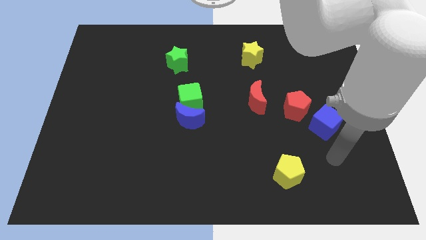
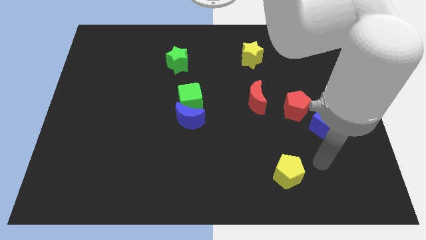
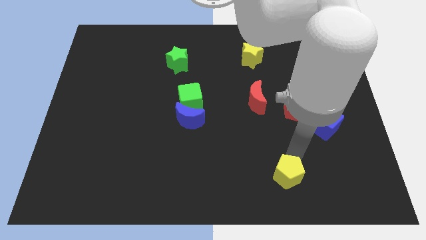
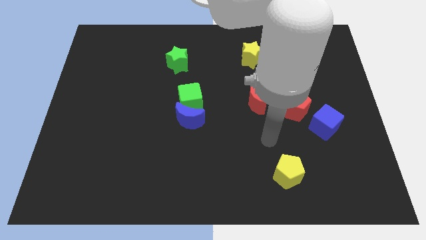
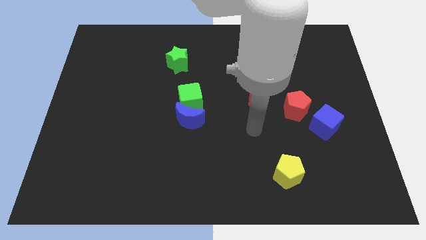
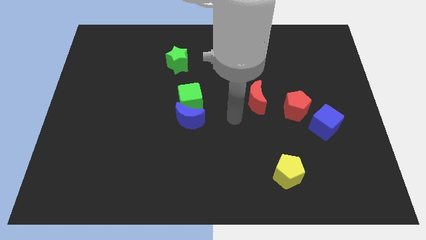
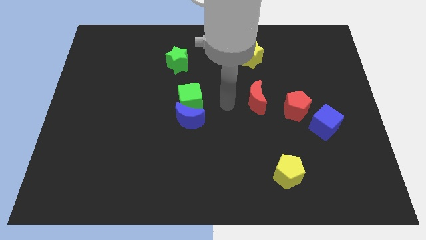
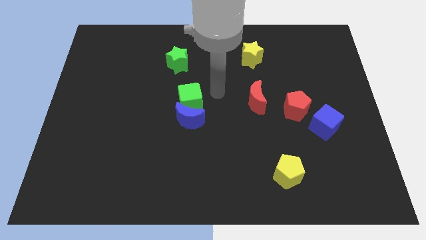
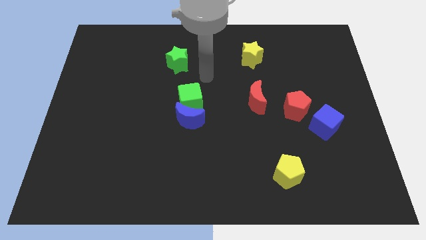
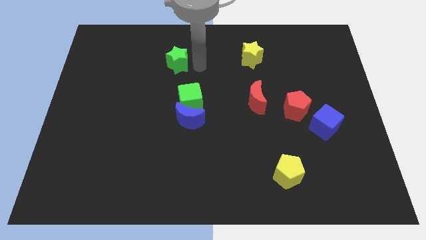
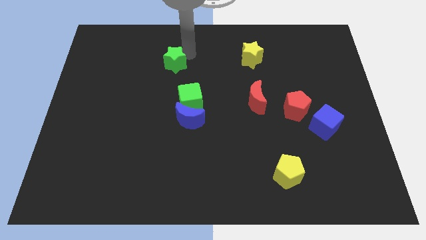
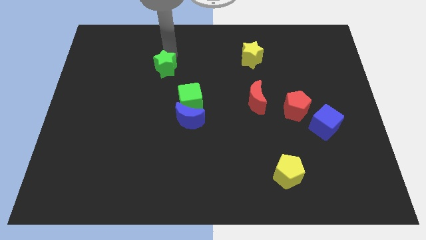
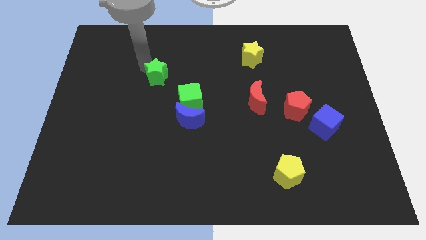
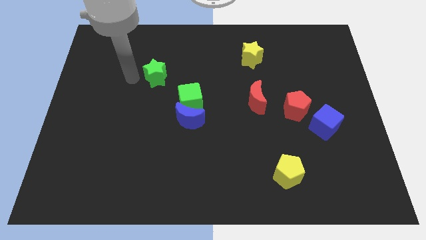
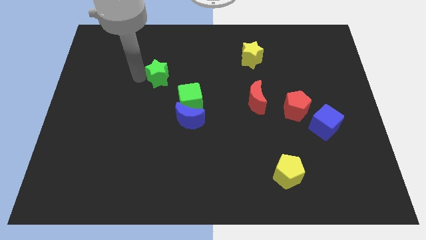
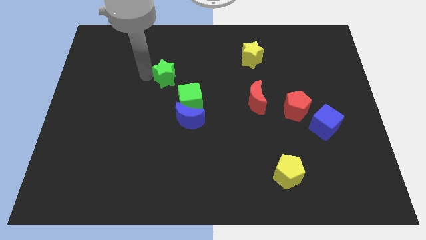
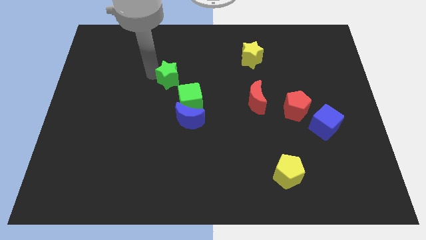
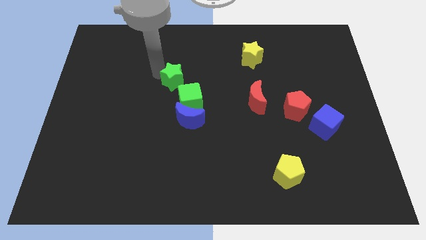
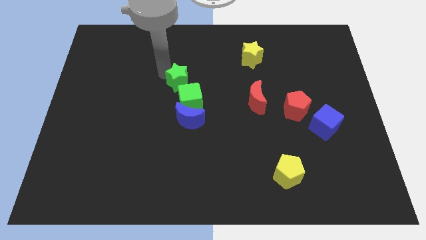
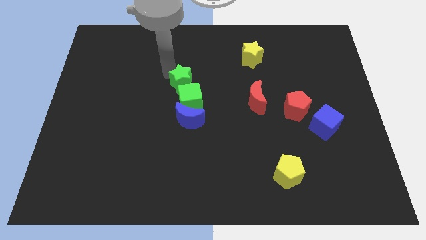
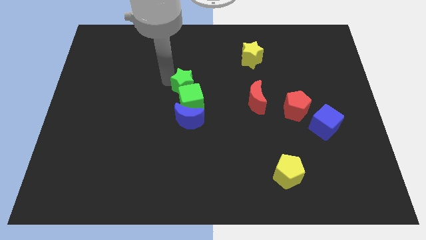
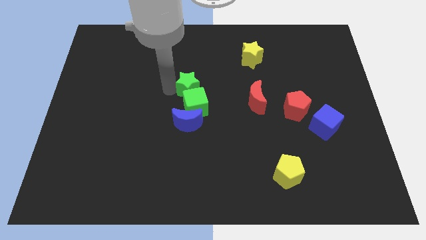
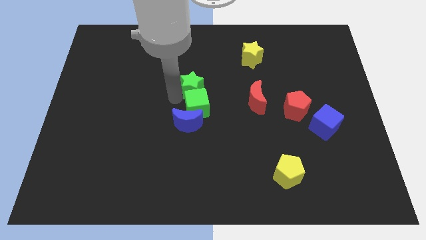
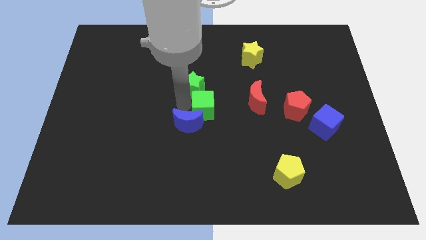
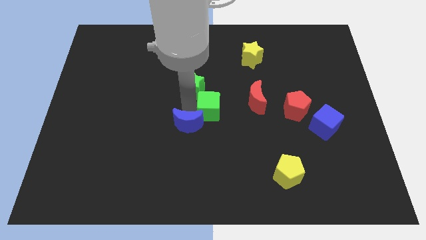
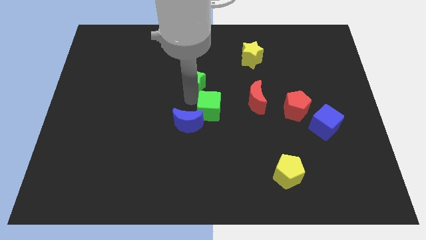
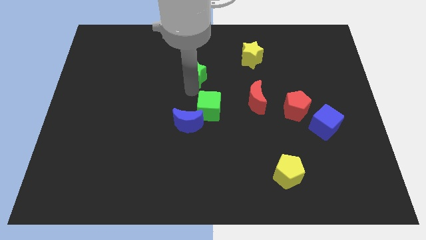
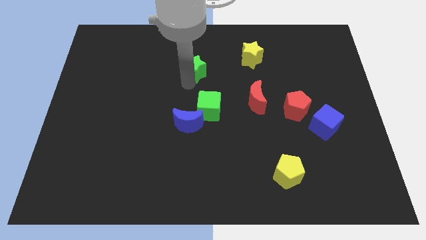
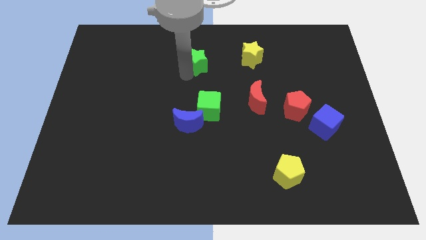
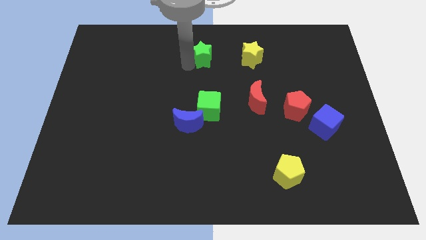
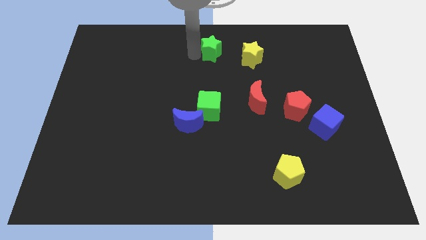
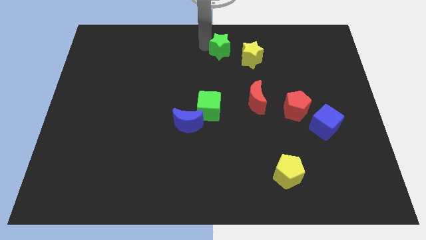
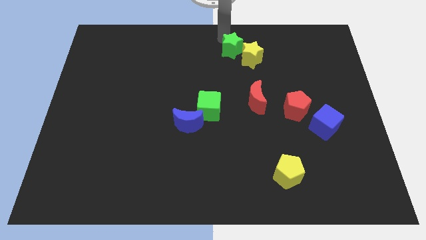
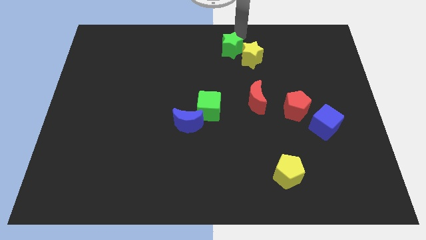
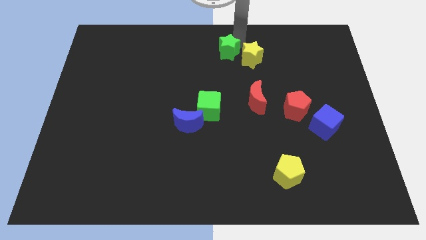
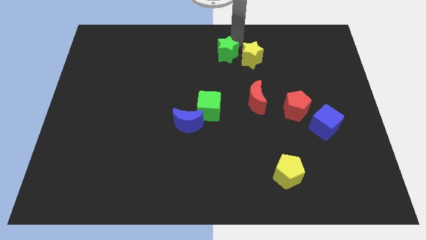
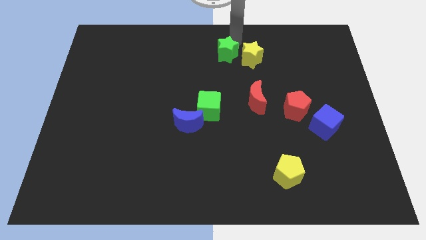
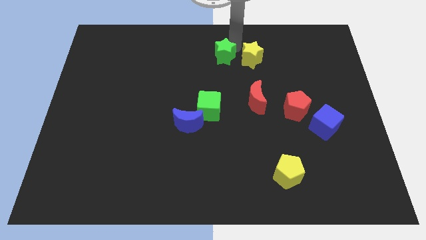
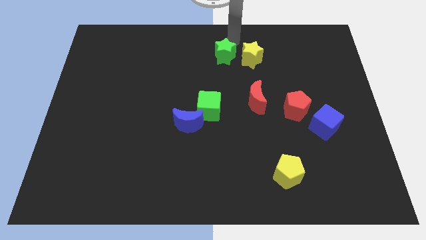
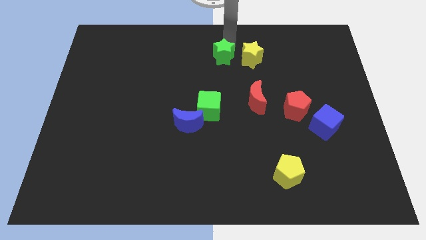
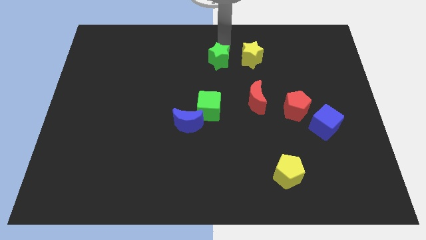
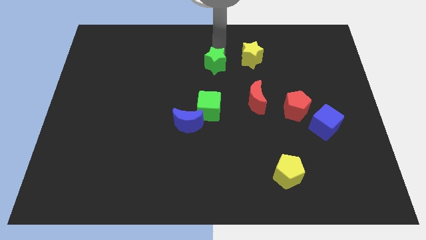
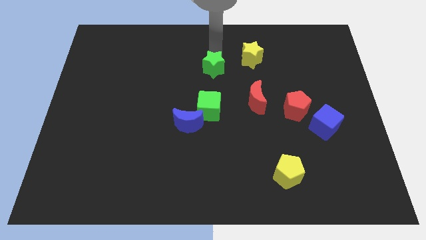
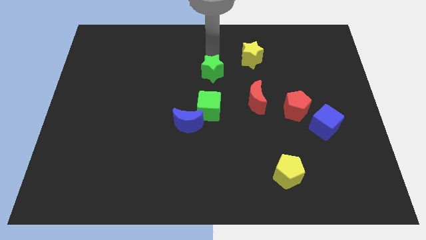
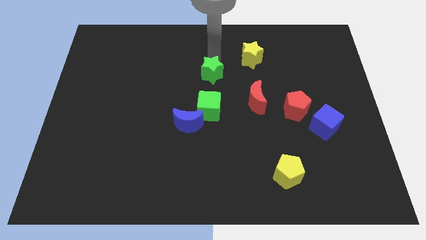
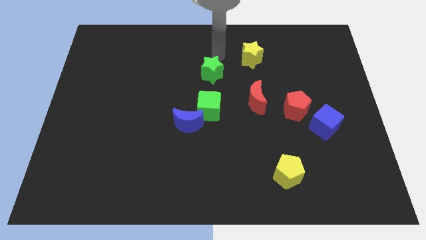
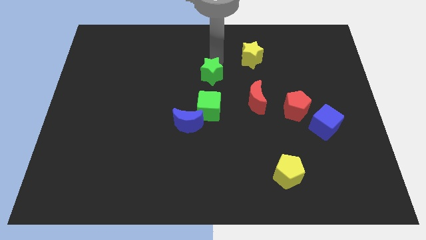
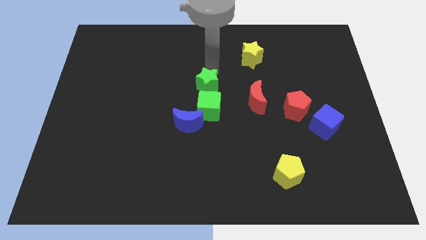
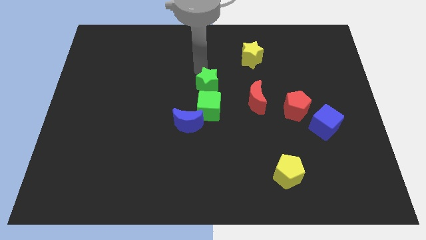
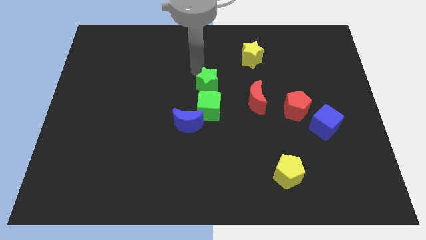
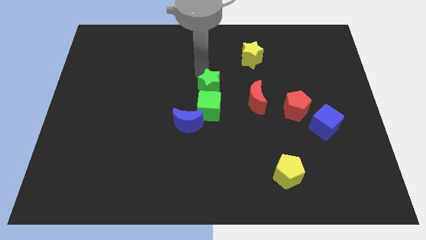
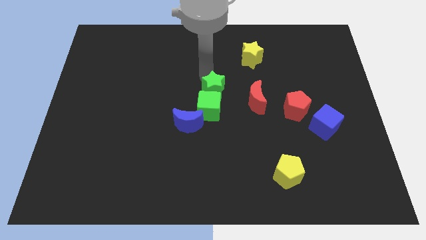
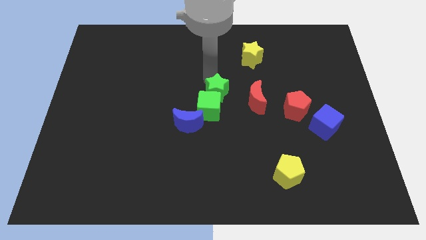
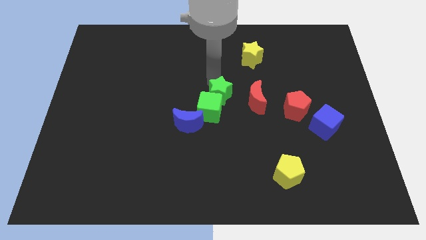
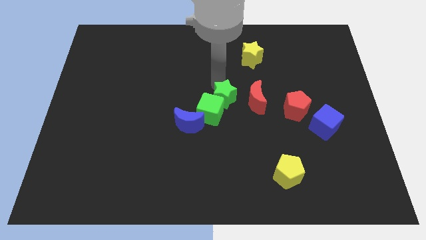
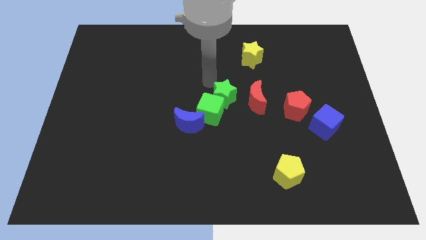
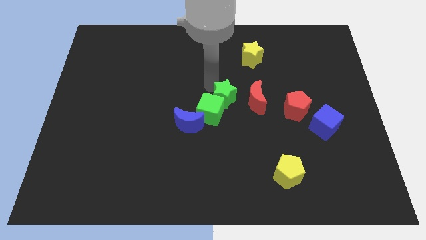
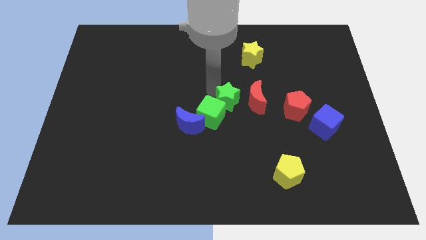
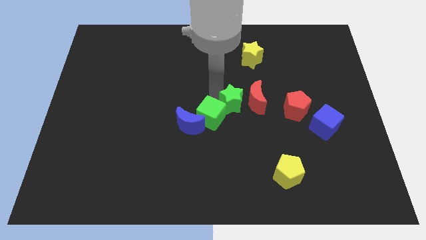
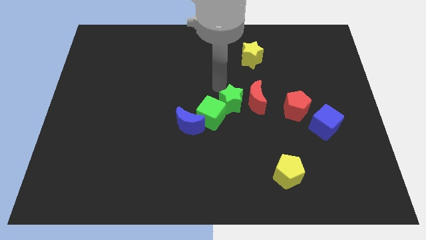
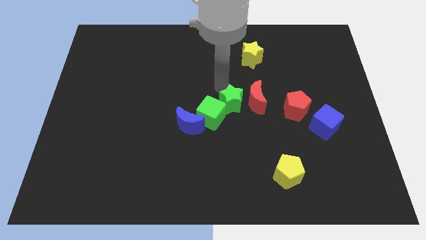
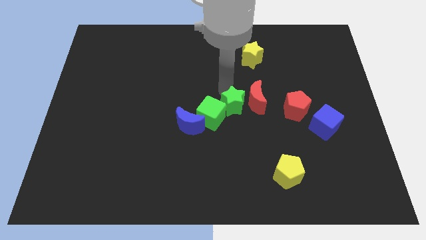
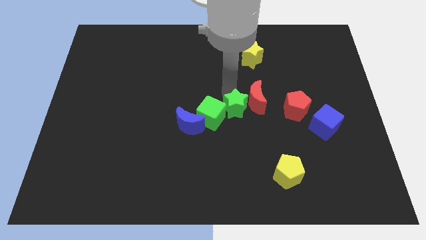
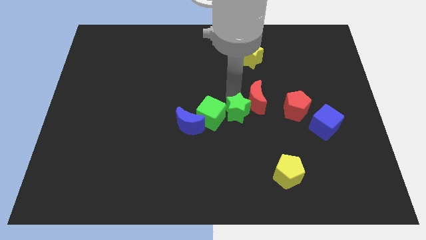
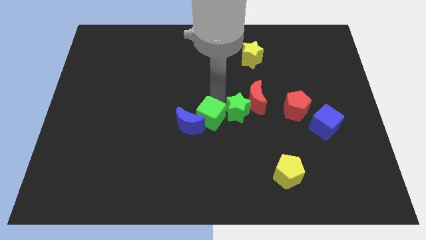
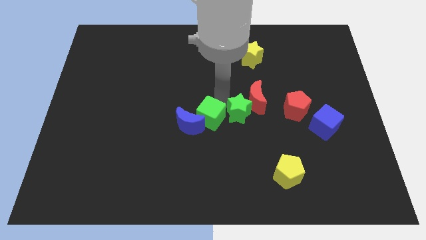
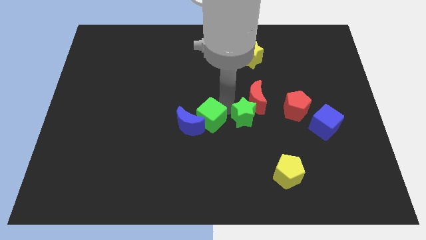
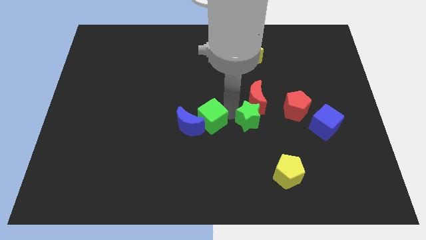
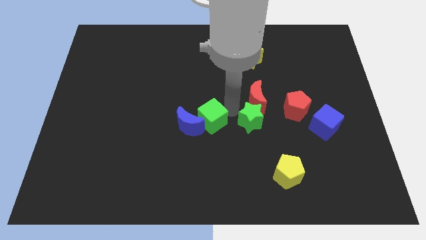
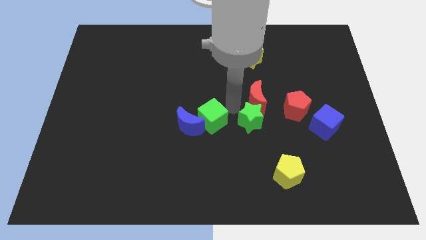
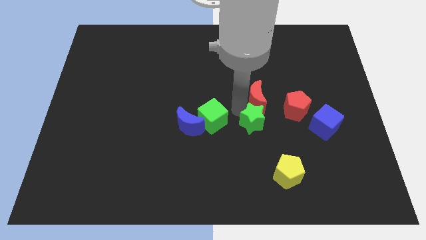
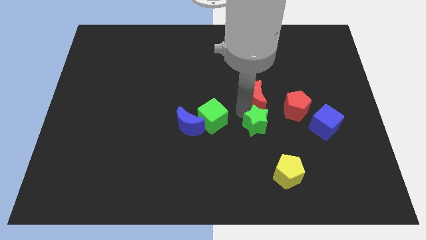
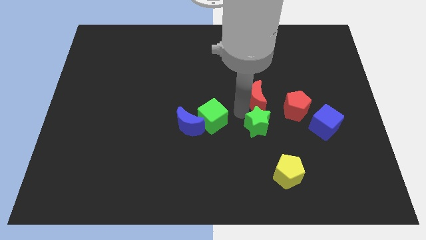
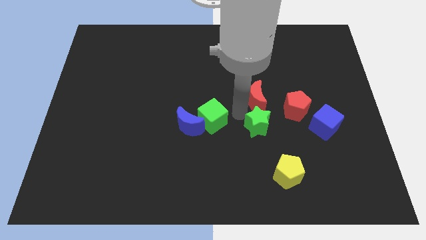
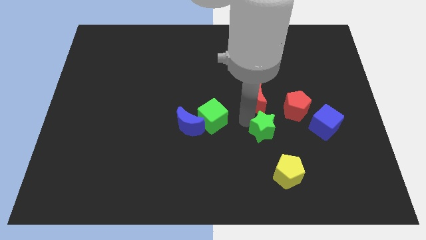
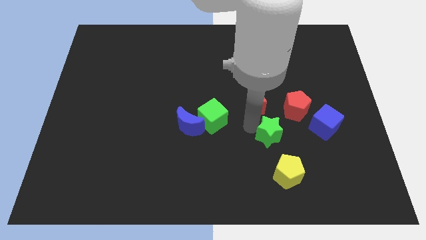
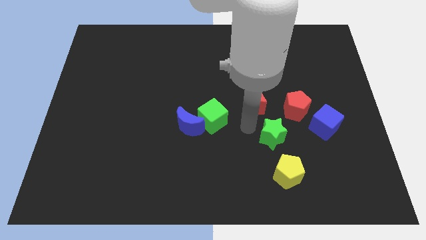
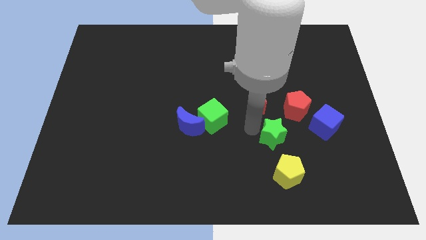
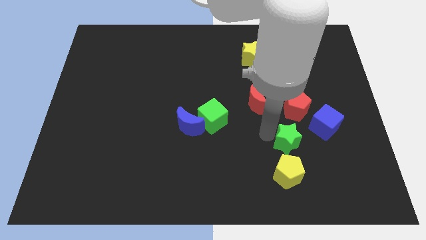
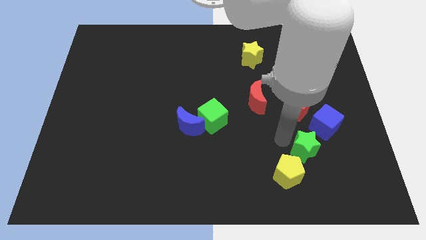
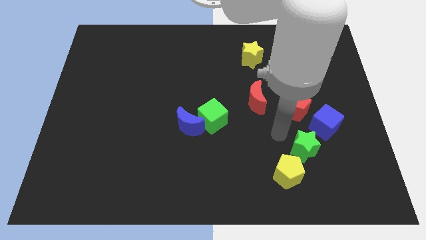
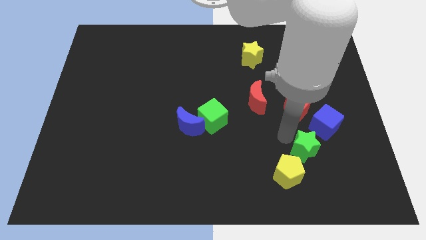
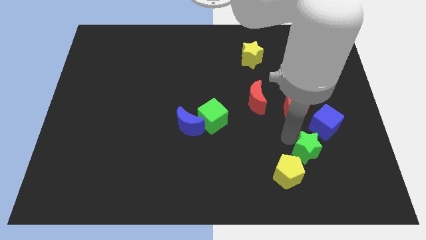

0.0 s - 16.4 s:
put the green star to the bottom of the blue cube
